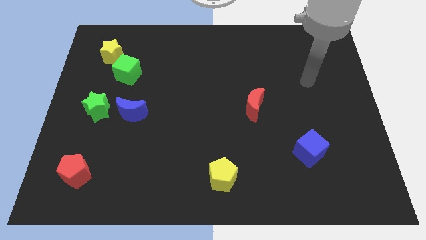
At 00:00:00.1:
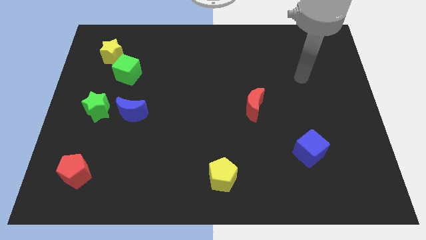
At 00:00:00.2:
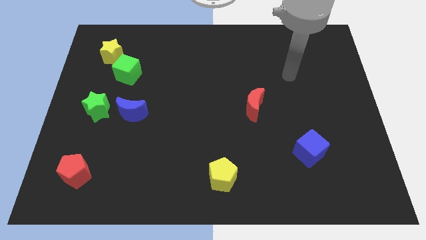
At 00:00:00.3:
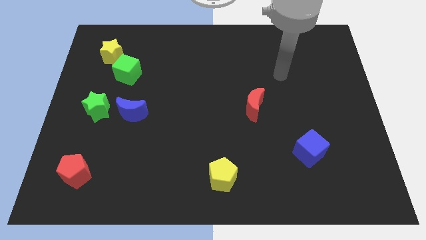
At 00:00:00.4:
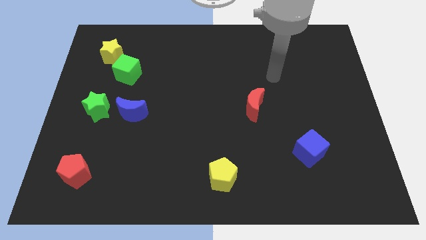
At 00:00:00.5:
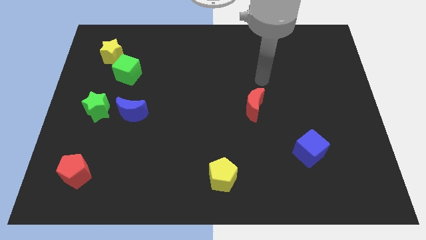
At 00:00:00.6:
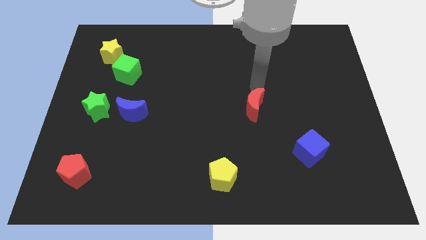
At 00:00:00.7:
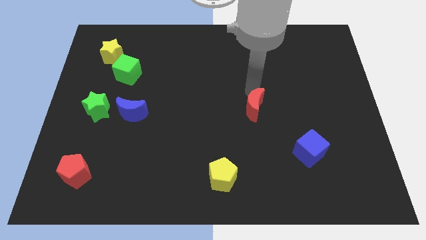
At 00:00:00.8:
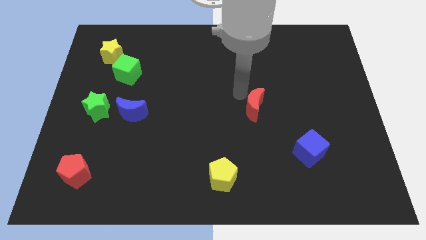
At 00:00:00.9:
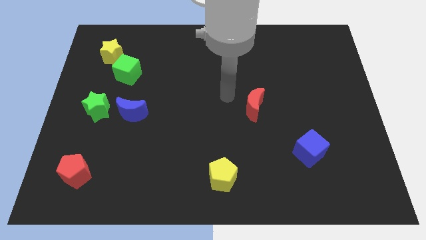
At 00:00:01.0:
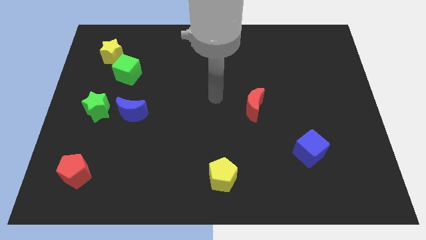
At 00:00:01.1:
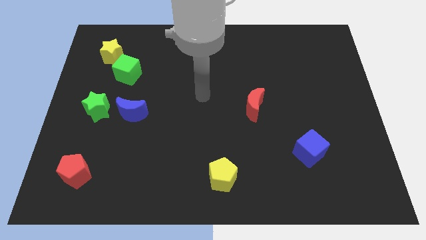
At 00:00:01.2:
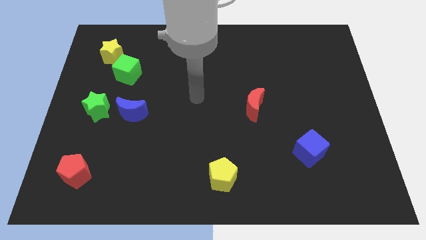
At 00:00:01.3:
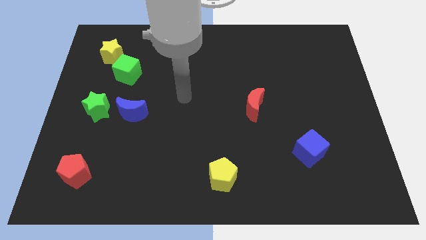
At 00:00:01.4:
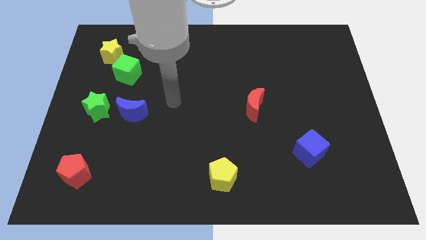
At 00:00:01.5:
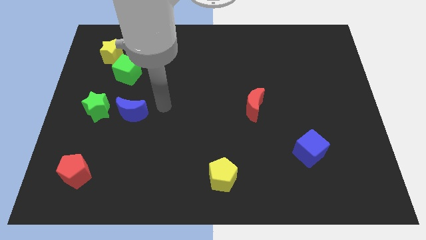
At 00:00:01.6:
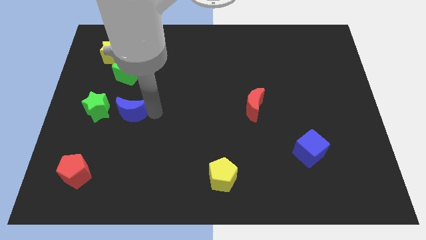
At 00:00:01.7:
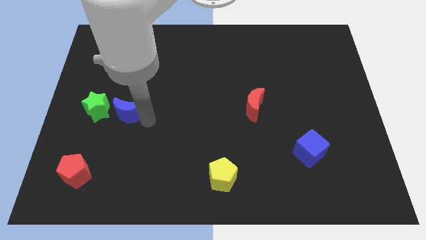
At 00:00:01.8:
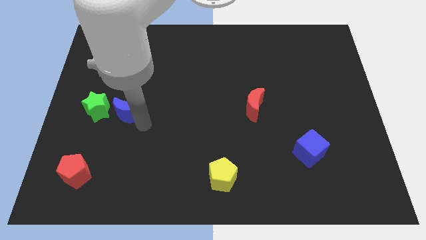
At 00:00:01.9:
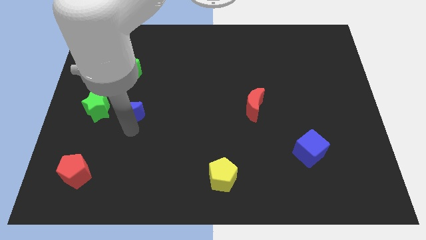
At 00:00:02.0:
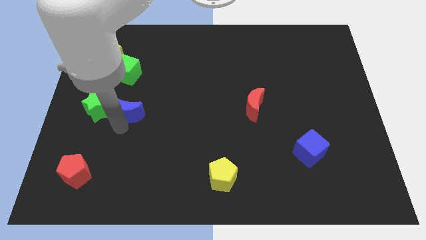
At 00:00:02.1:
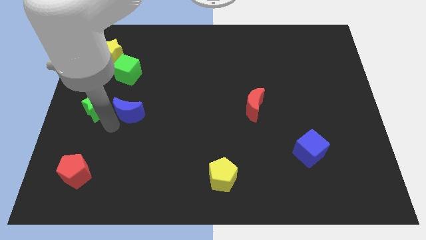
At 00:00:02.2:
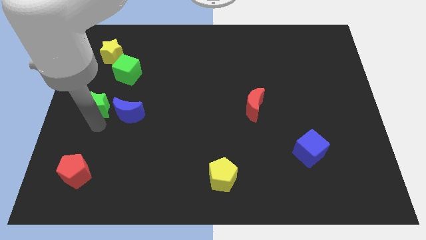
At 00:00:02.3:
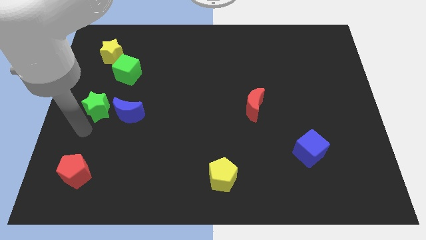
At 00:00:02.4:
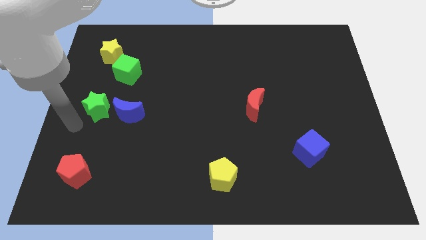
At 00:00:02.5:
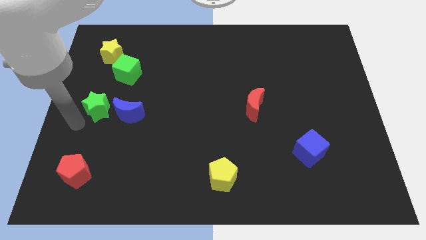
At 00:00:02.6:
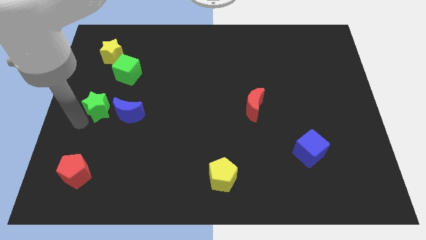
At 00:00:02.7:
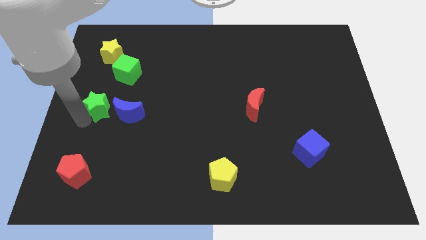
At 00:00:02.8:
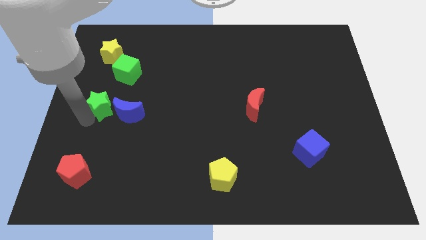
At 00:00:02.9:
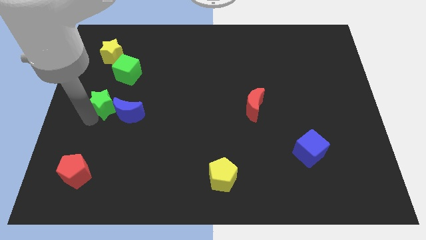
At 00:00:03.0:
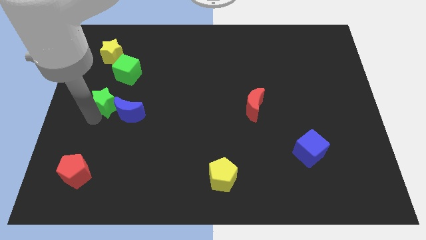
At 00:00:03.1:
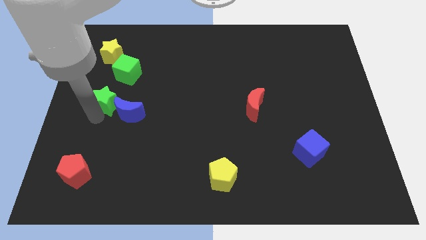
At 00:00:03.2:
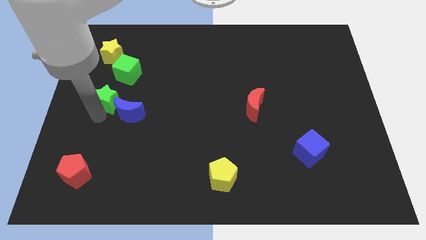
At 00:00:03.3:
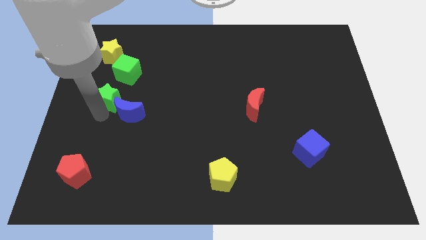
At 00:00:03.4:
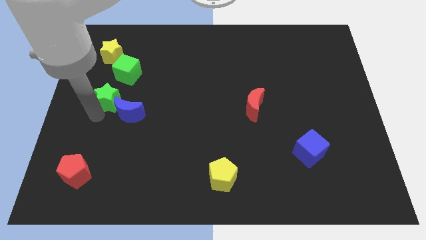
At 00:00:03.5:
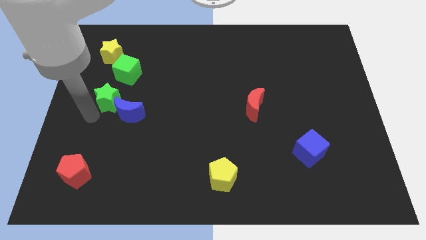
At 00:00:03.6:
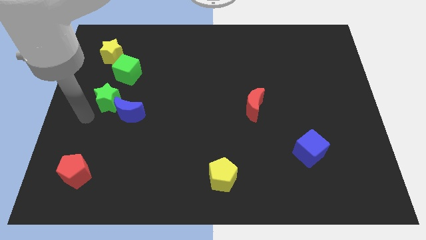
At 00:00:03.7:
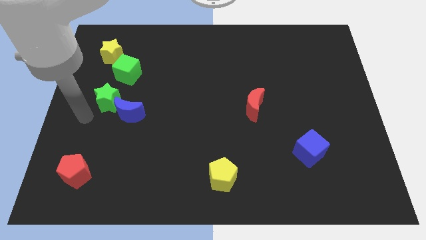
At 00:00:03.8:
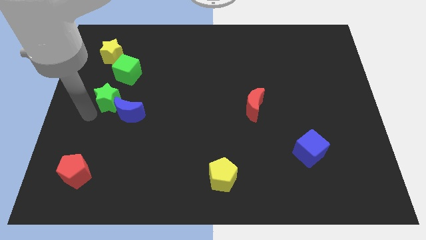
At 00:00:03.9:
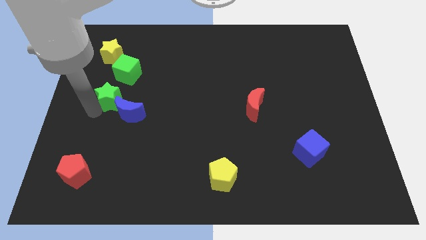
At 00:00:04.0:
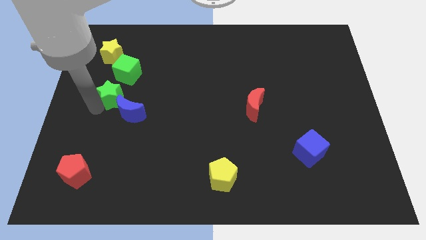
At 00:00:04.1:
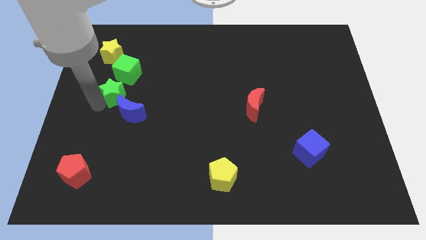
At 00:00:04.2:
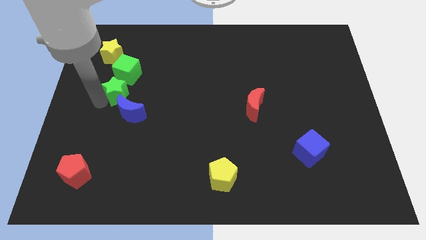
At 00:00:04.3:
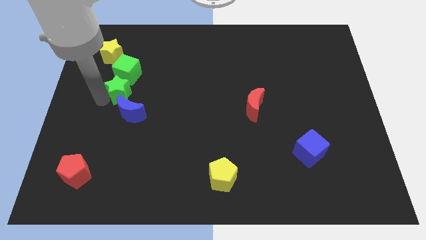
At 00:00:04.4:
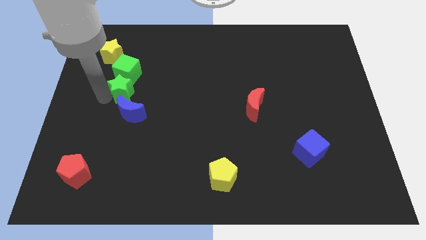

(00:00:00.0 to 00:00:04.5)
slightly move the green star up and right

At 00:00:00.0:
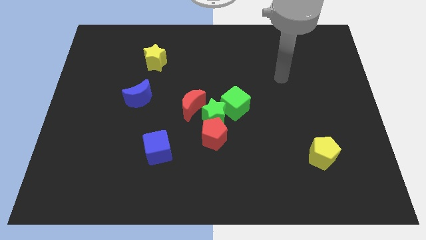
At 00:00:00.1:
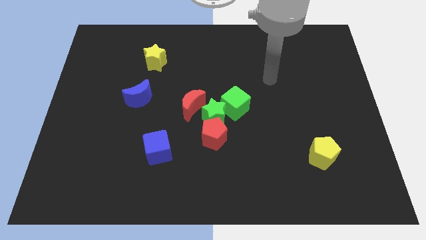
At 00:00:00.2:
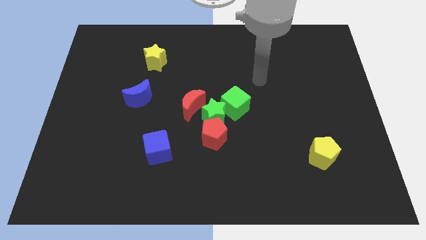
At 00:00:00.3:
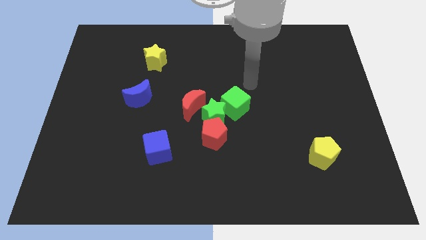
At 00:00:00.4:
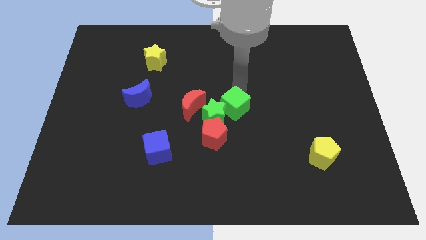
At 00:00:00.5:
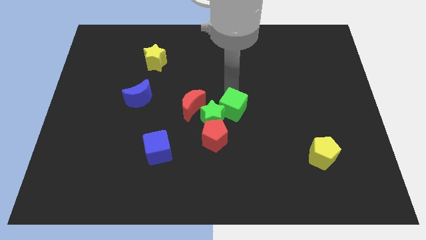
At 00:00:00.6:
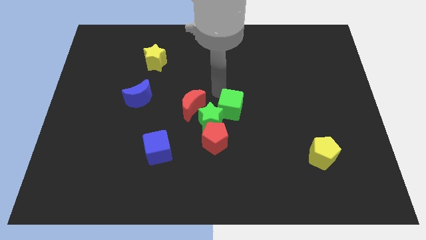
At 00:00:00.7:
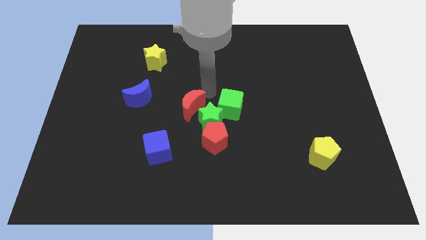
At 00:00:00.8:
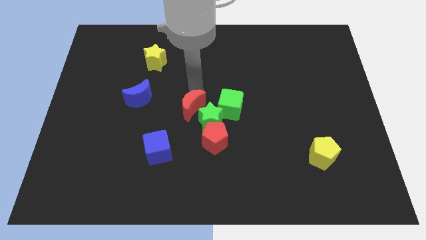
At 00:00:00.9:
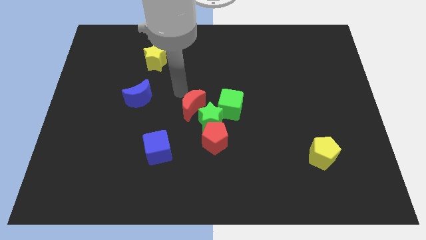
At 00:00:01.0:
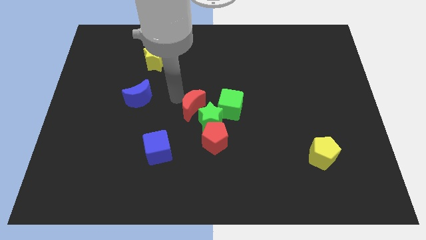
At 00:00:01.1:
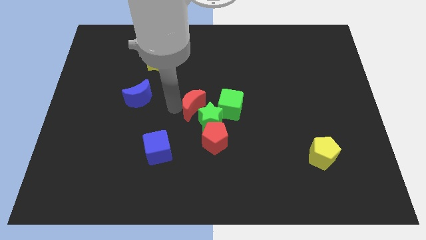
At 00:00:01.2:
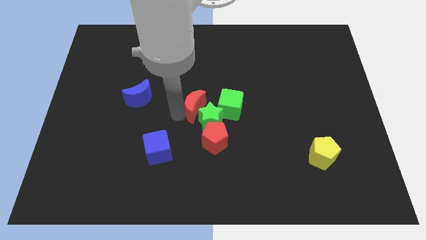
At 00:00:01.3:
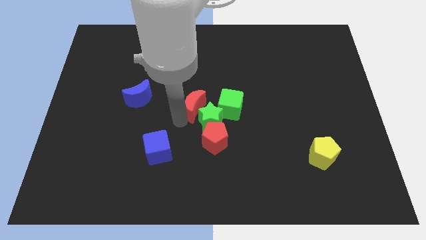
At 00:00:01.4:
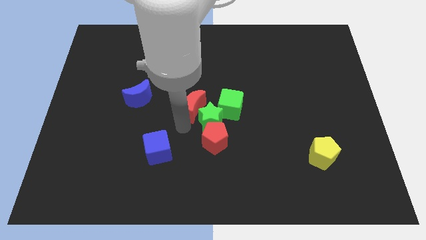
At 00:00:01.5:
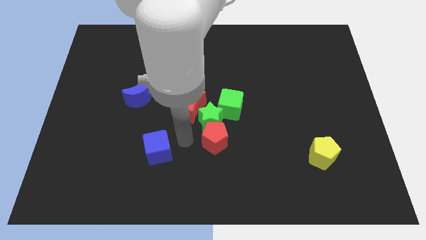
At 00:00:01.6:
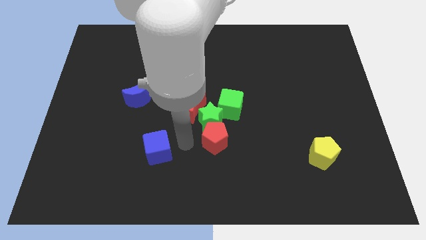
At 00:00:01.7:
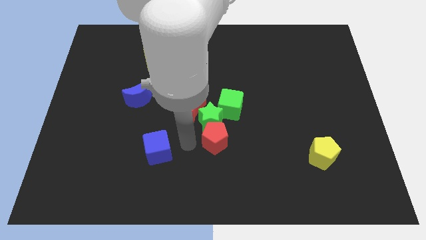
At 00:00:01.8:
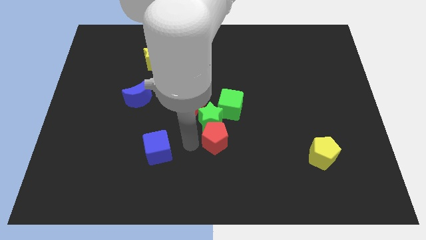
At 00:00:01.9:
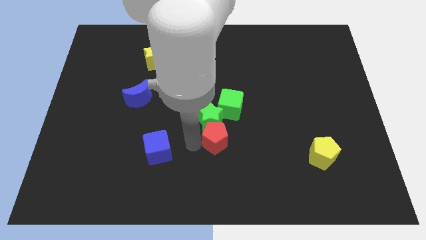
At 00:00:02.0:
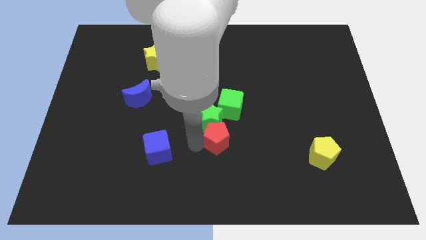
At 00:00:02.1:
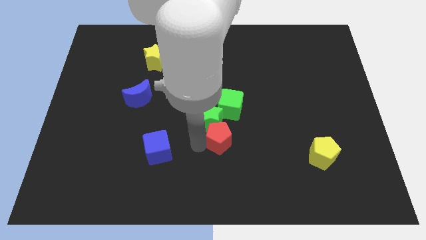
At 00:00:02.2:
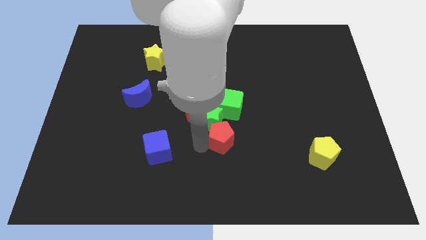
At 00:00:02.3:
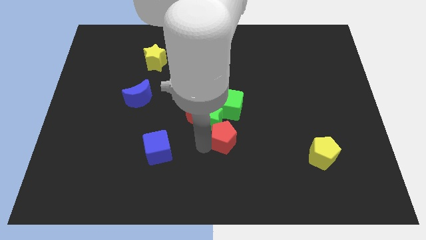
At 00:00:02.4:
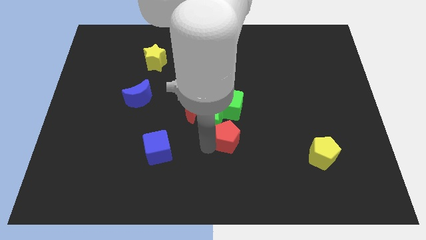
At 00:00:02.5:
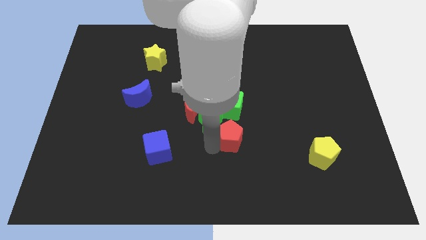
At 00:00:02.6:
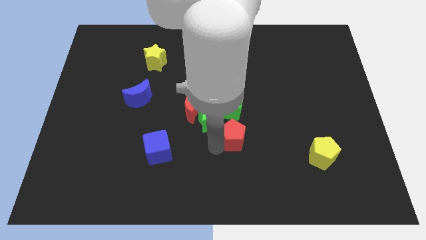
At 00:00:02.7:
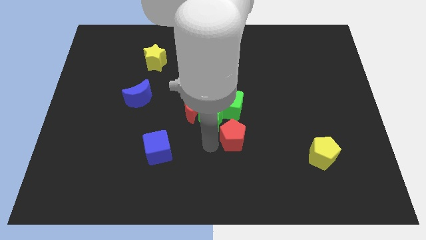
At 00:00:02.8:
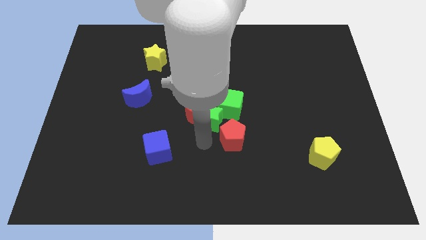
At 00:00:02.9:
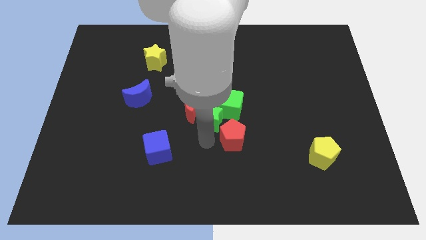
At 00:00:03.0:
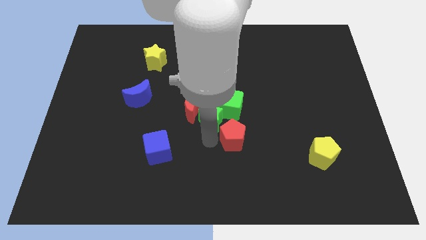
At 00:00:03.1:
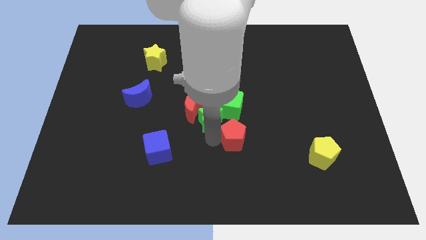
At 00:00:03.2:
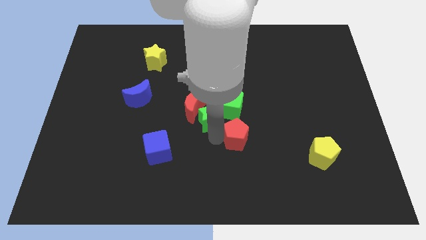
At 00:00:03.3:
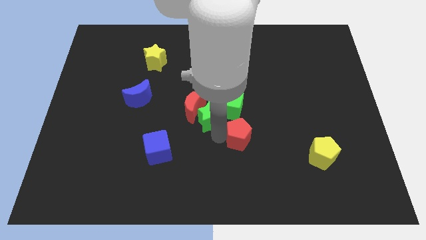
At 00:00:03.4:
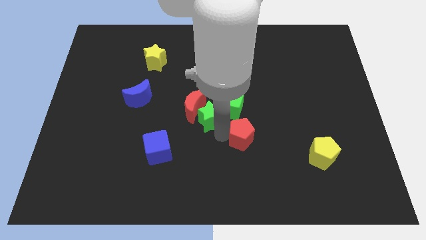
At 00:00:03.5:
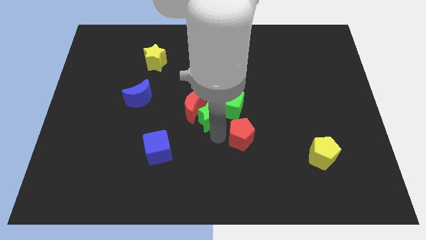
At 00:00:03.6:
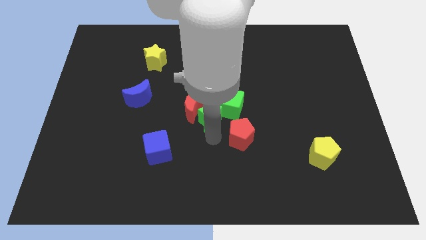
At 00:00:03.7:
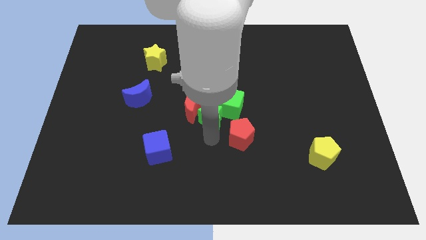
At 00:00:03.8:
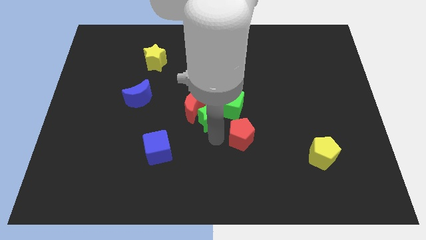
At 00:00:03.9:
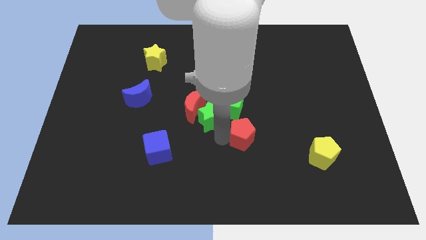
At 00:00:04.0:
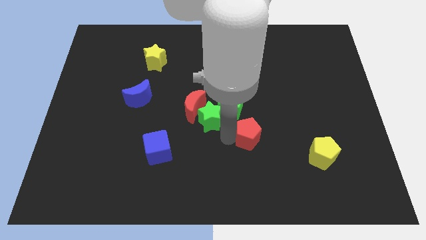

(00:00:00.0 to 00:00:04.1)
push the red pentagon right a little
